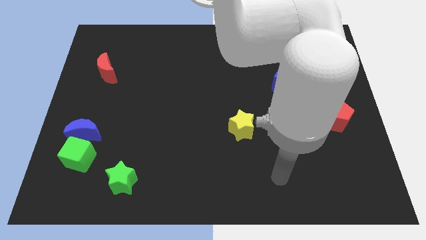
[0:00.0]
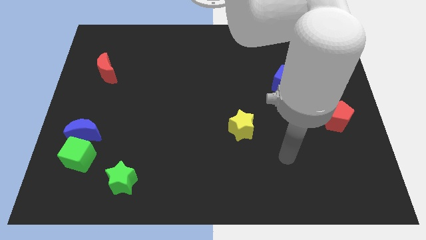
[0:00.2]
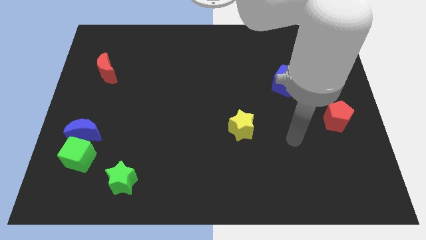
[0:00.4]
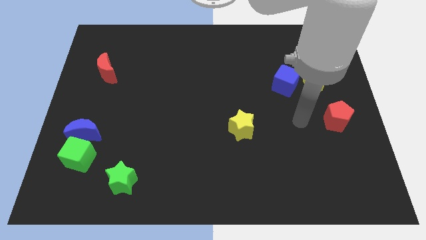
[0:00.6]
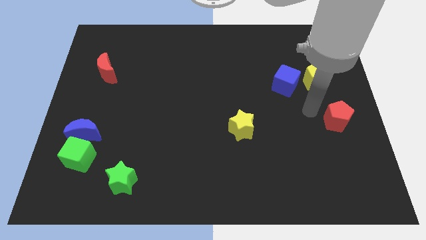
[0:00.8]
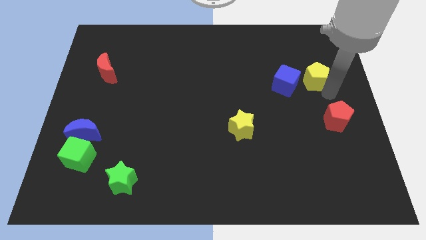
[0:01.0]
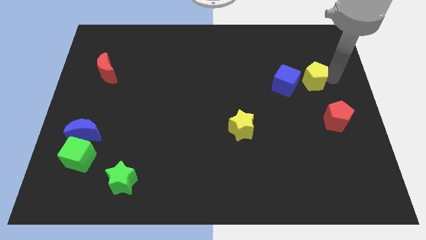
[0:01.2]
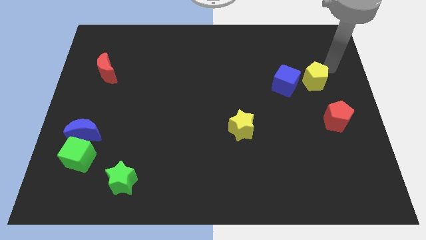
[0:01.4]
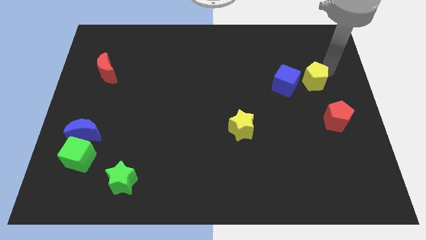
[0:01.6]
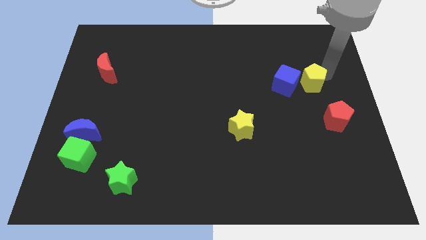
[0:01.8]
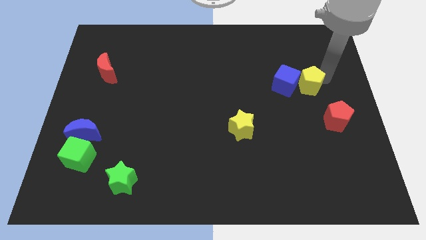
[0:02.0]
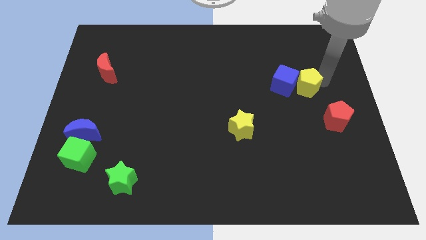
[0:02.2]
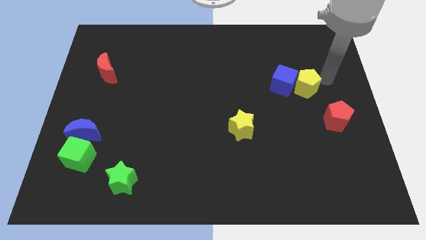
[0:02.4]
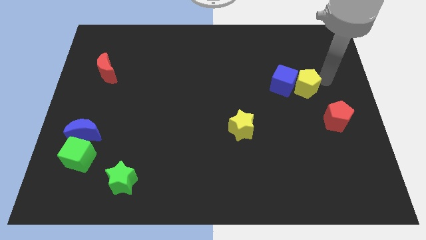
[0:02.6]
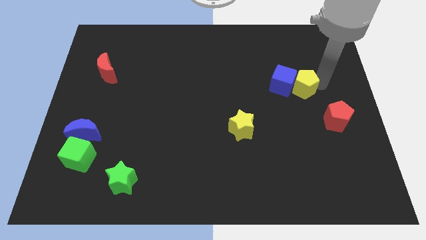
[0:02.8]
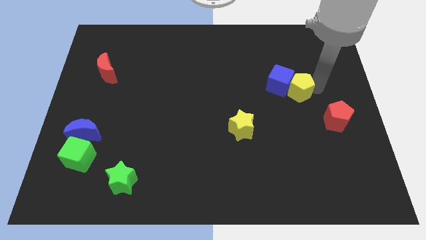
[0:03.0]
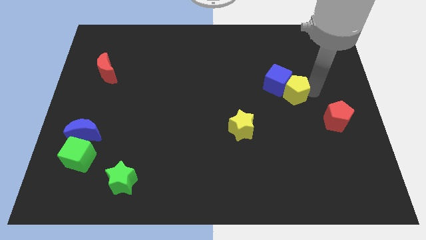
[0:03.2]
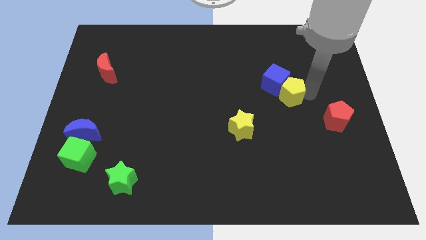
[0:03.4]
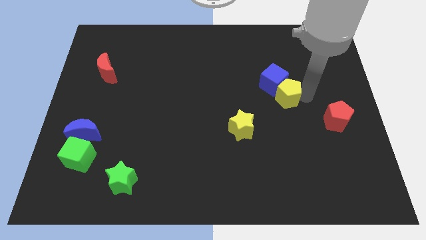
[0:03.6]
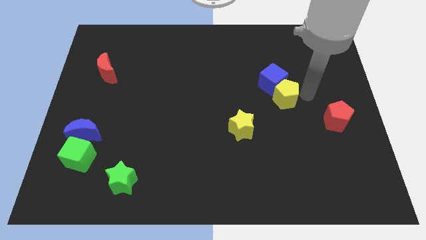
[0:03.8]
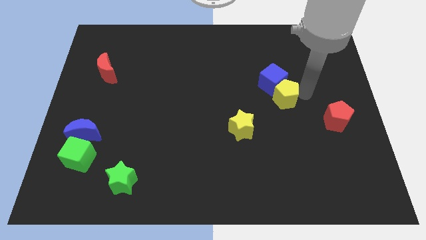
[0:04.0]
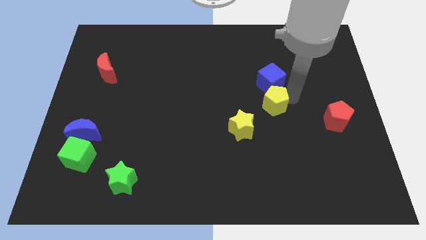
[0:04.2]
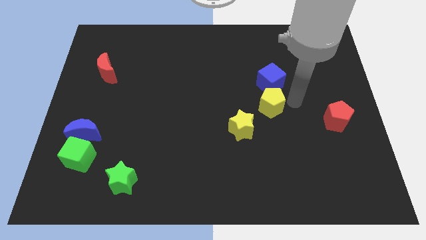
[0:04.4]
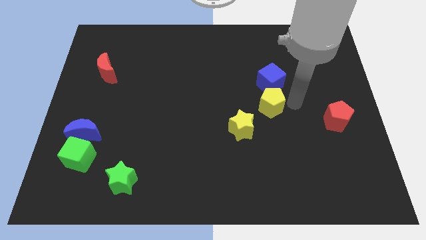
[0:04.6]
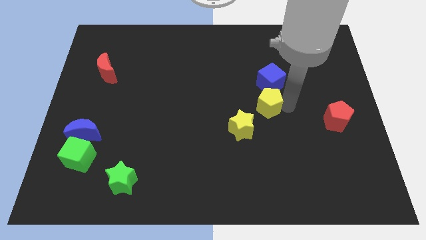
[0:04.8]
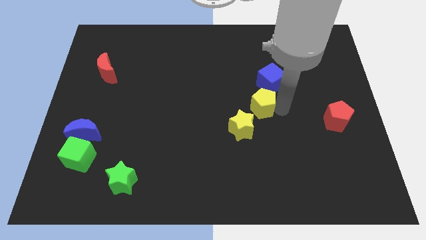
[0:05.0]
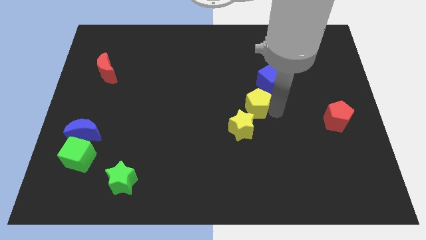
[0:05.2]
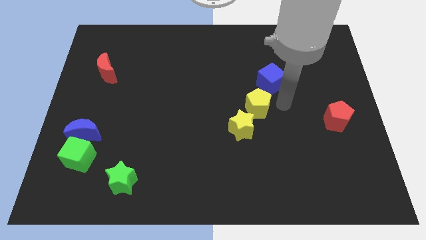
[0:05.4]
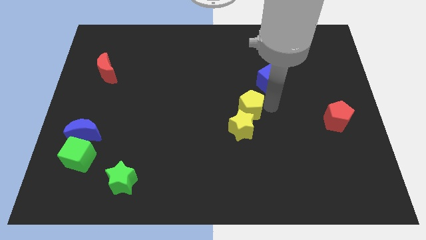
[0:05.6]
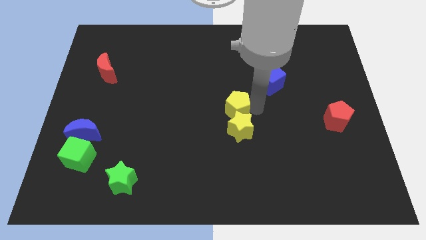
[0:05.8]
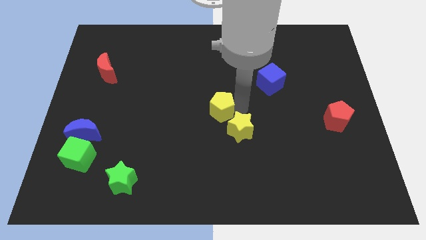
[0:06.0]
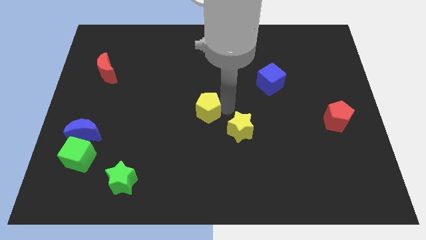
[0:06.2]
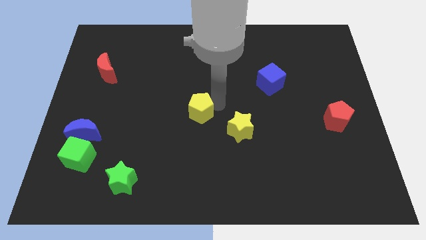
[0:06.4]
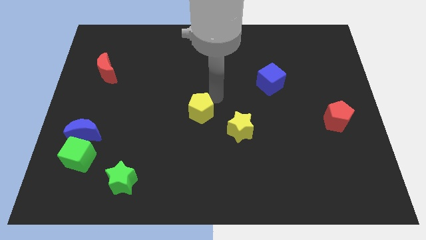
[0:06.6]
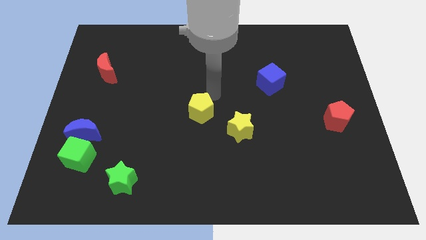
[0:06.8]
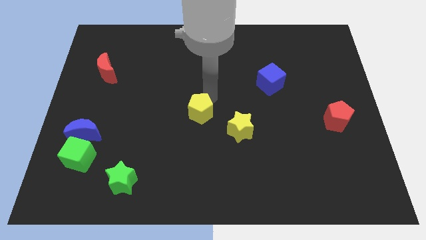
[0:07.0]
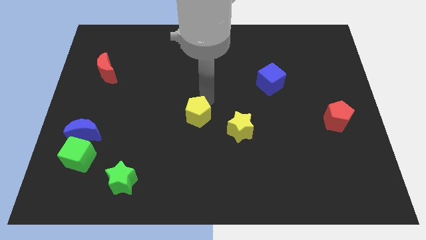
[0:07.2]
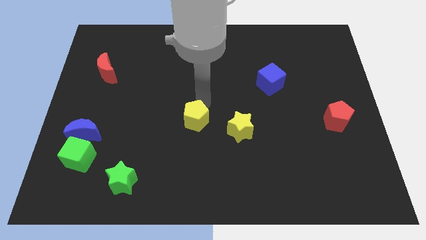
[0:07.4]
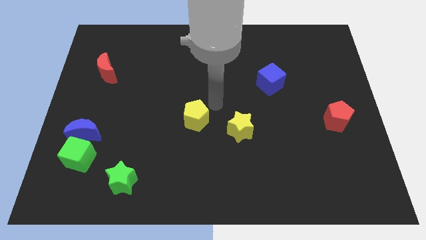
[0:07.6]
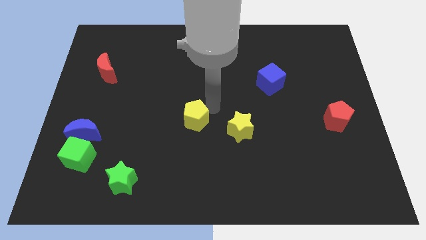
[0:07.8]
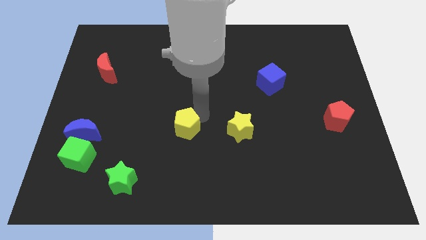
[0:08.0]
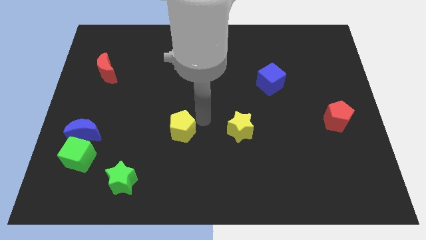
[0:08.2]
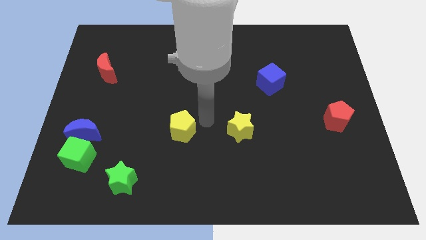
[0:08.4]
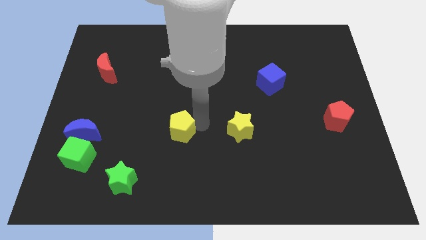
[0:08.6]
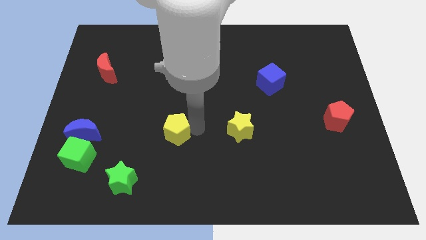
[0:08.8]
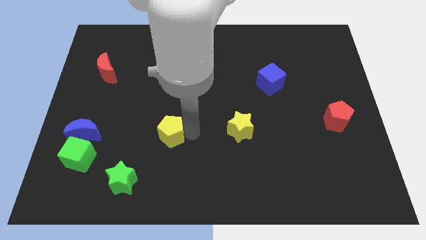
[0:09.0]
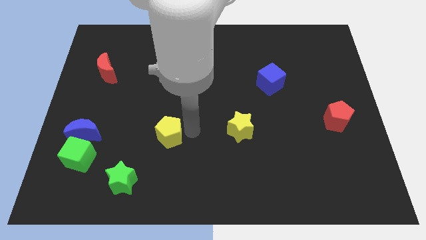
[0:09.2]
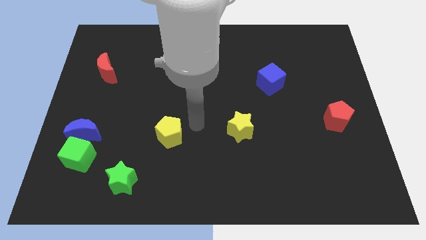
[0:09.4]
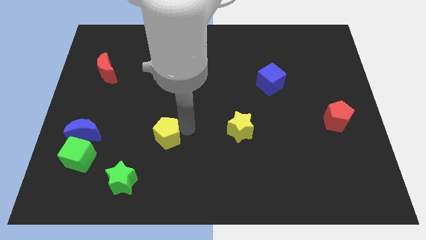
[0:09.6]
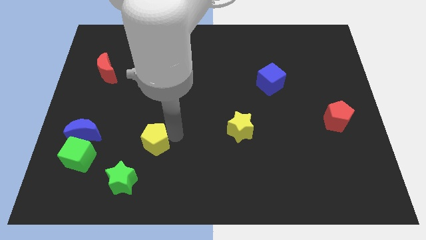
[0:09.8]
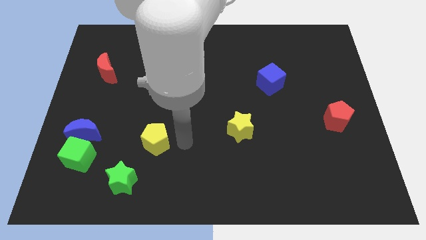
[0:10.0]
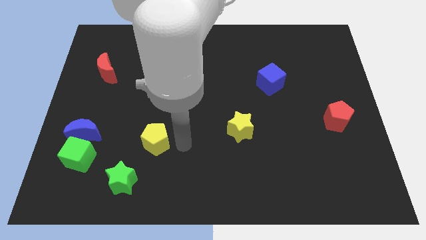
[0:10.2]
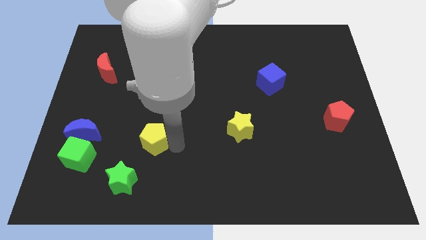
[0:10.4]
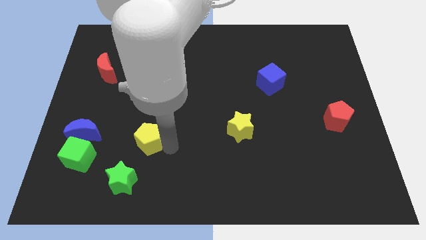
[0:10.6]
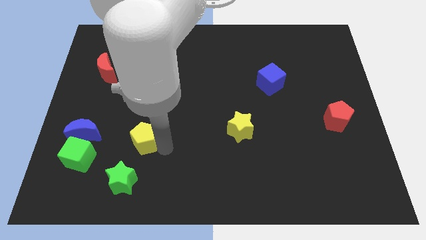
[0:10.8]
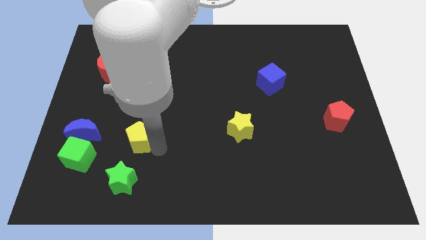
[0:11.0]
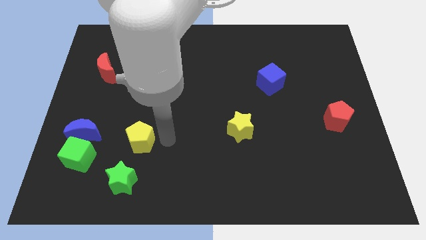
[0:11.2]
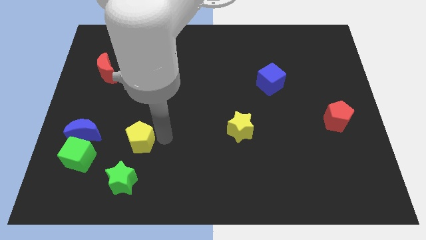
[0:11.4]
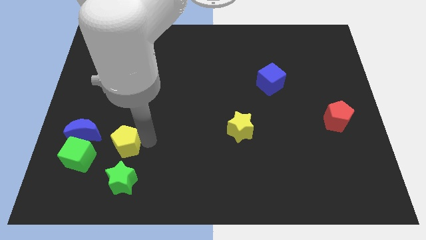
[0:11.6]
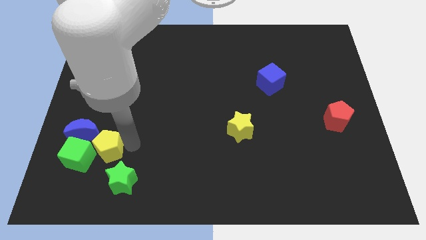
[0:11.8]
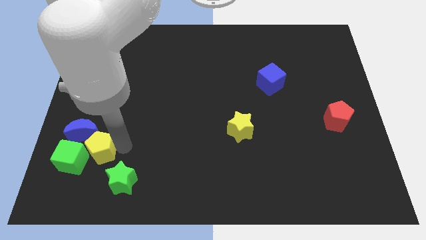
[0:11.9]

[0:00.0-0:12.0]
push the yellow pentagon next to the green cube

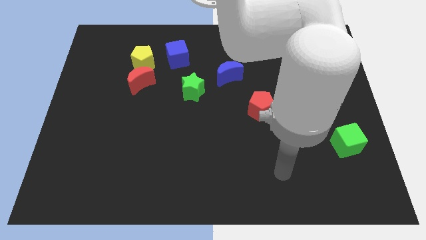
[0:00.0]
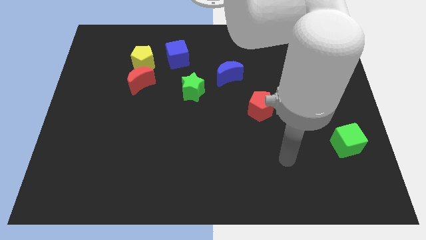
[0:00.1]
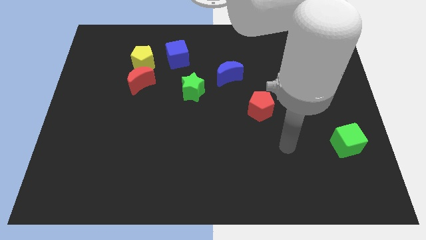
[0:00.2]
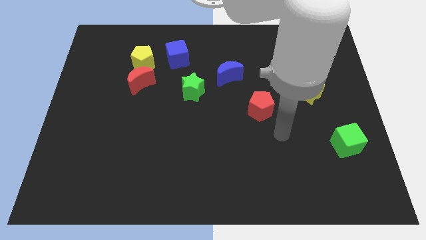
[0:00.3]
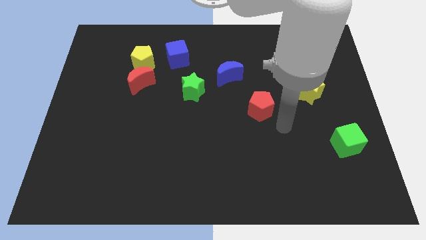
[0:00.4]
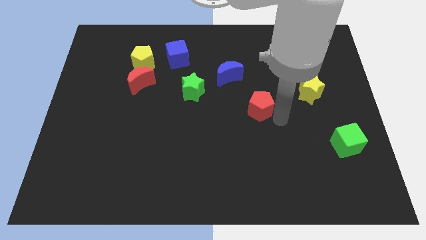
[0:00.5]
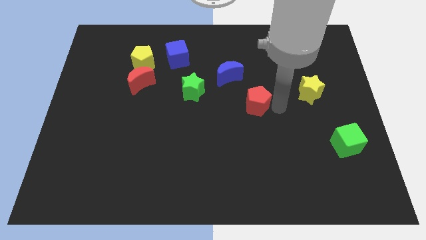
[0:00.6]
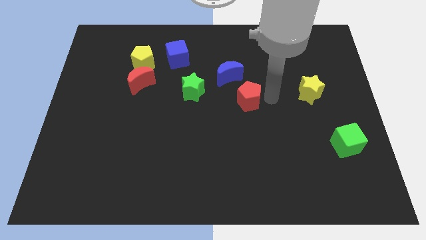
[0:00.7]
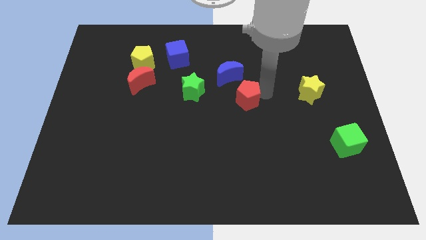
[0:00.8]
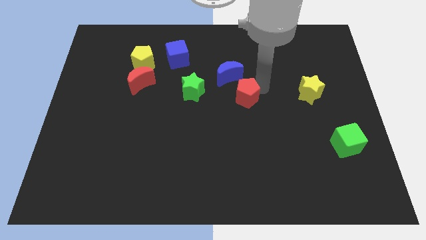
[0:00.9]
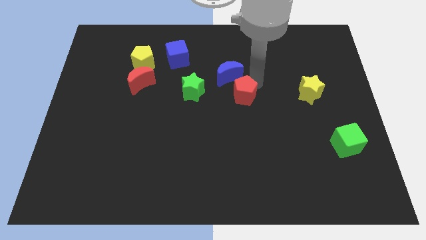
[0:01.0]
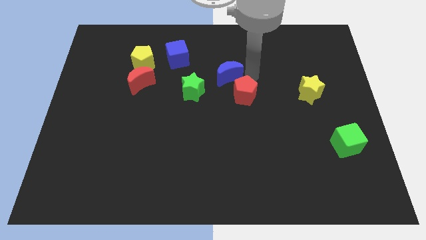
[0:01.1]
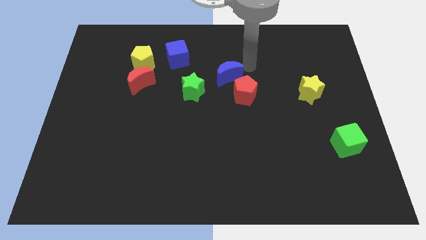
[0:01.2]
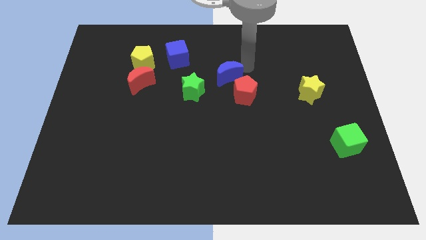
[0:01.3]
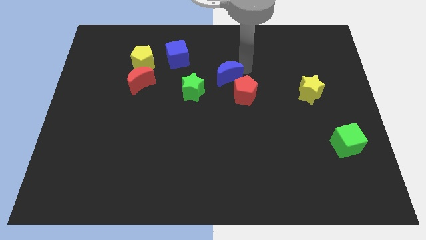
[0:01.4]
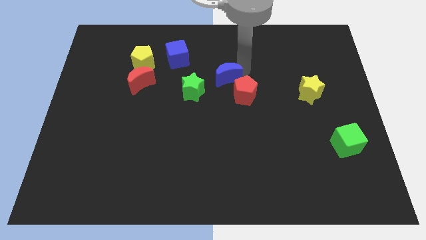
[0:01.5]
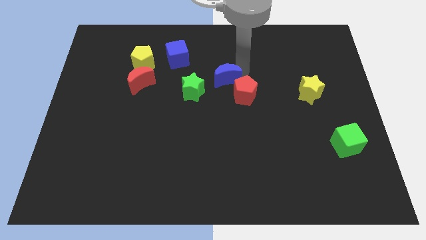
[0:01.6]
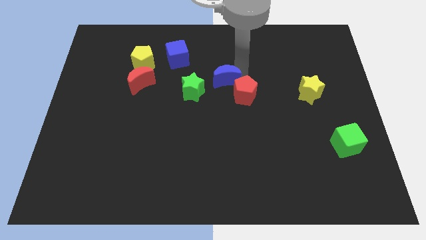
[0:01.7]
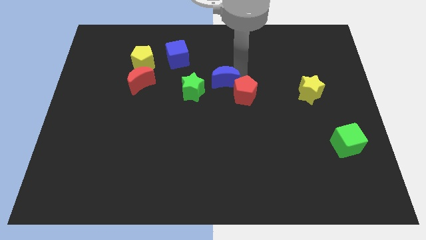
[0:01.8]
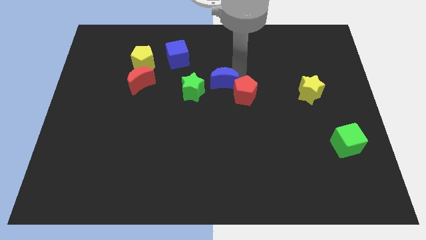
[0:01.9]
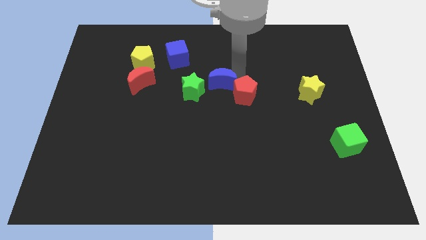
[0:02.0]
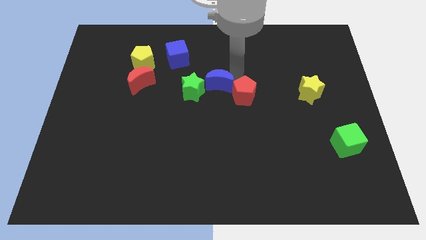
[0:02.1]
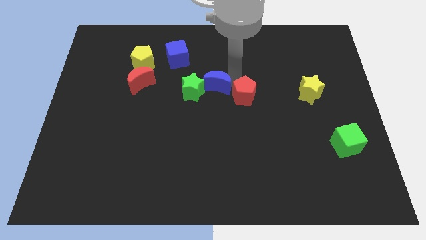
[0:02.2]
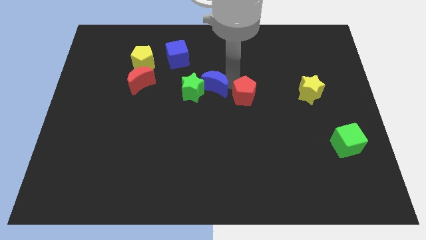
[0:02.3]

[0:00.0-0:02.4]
move the blue moon towards the green star
